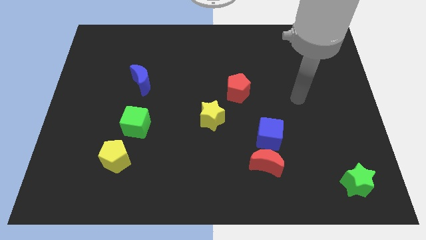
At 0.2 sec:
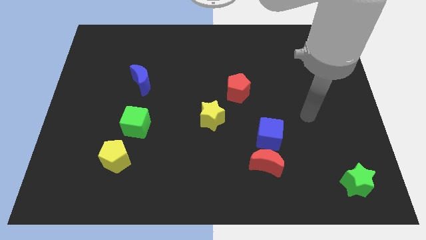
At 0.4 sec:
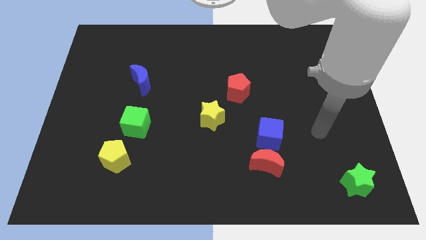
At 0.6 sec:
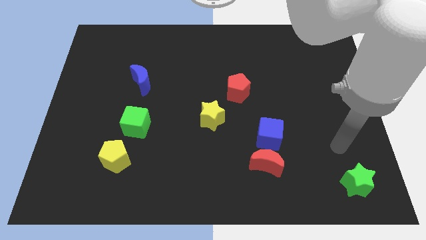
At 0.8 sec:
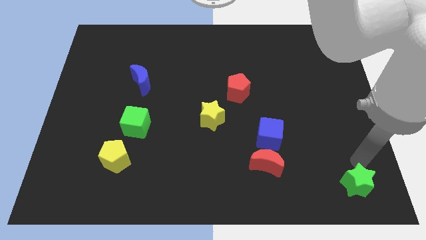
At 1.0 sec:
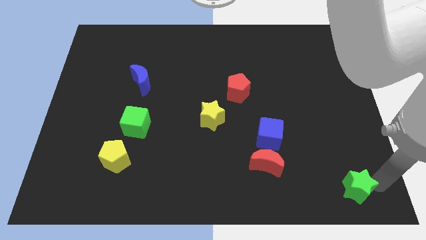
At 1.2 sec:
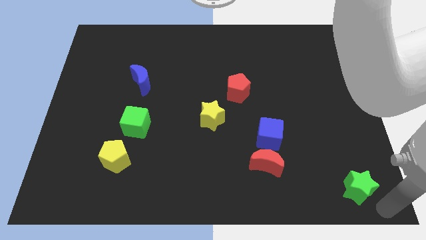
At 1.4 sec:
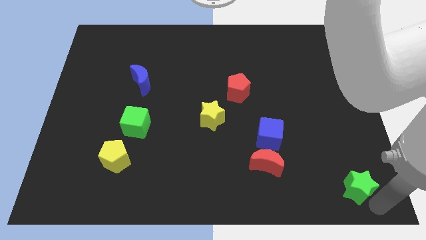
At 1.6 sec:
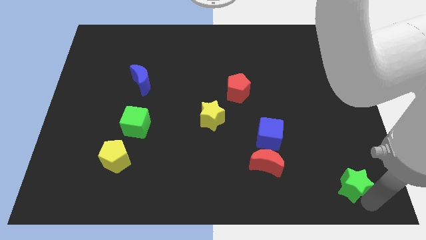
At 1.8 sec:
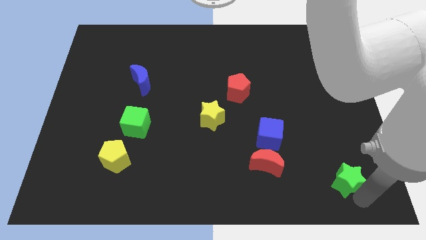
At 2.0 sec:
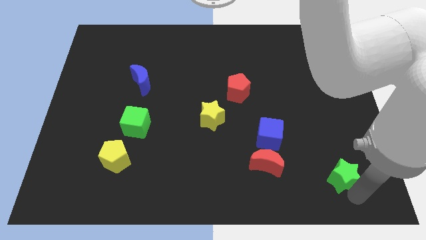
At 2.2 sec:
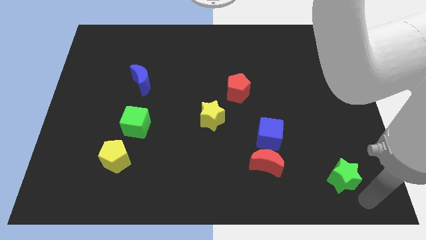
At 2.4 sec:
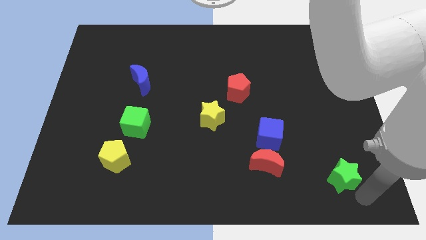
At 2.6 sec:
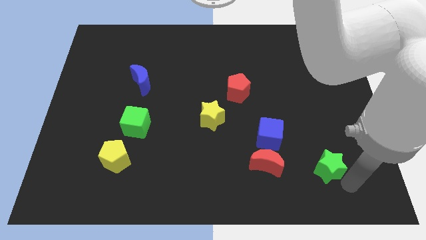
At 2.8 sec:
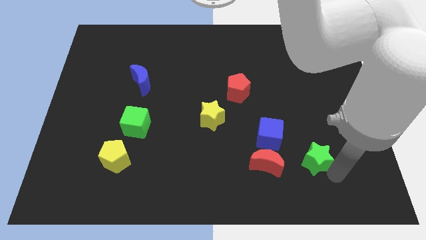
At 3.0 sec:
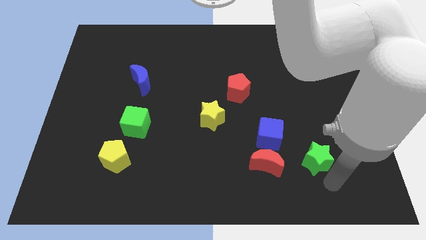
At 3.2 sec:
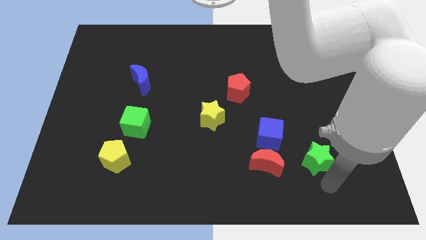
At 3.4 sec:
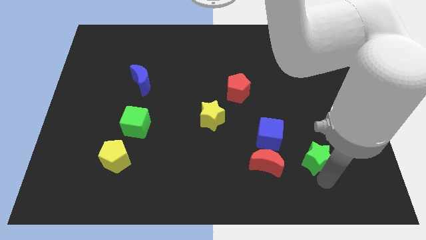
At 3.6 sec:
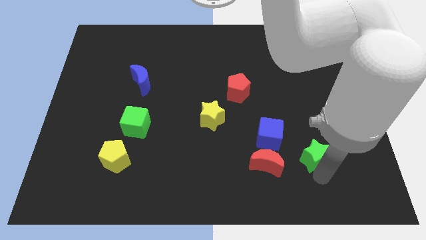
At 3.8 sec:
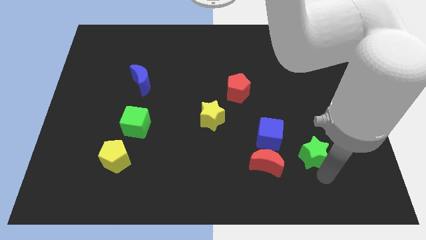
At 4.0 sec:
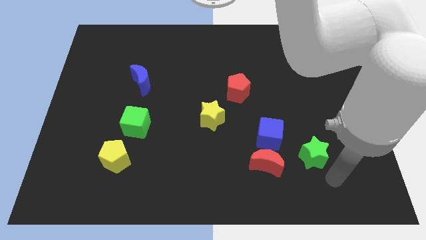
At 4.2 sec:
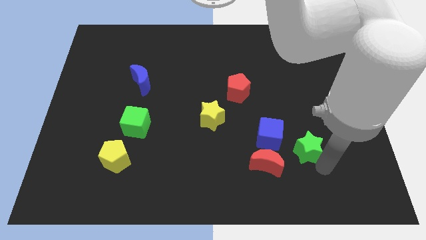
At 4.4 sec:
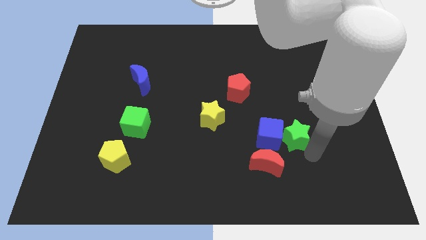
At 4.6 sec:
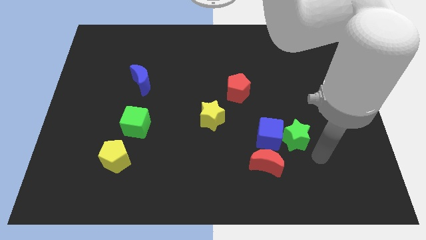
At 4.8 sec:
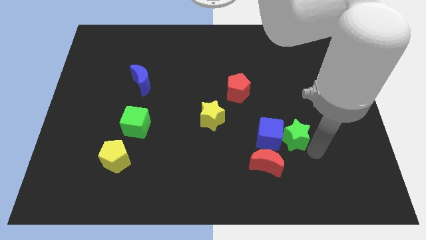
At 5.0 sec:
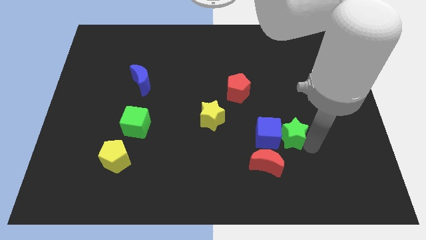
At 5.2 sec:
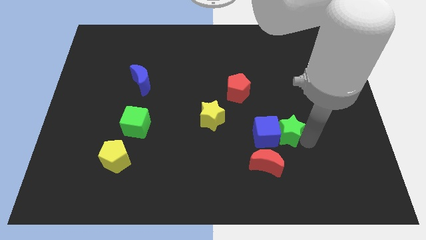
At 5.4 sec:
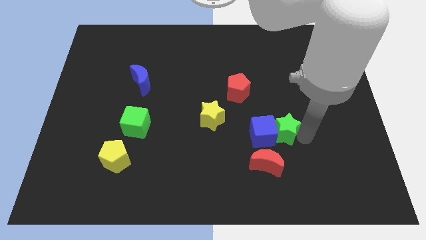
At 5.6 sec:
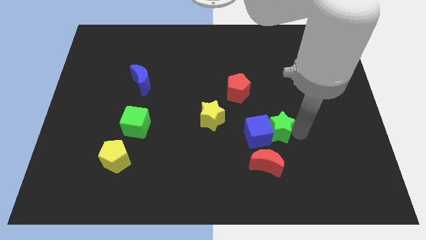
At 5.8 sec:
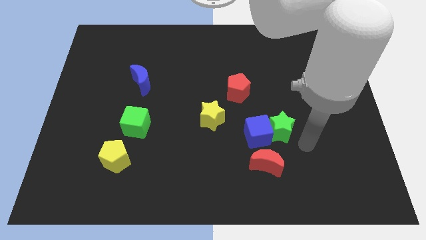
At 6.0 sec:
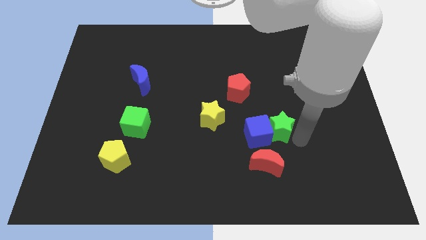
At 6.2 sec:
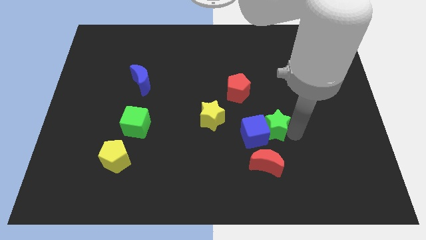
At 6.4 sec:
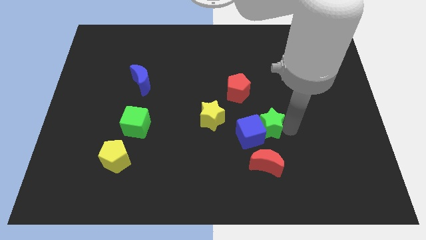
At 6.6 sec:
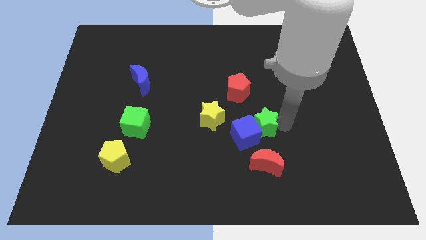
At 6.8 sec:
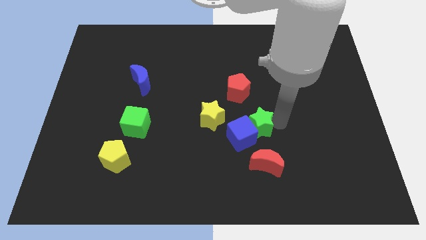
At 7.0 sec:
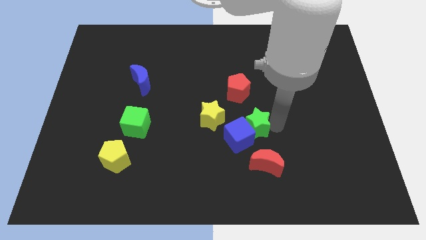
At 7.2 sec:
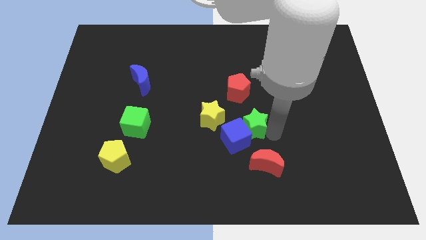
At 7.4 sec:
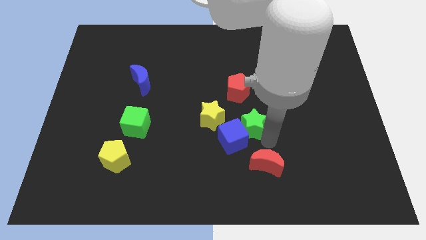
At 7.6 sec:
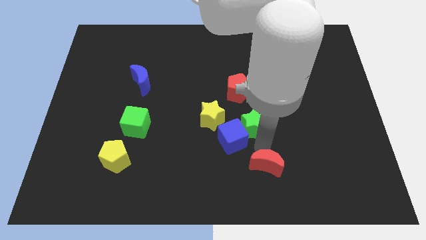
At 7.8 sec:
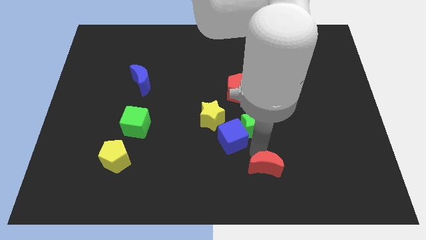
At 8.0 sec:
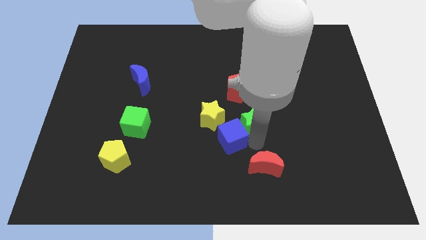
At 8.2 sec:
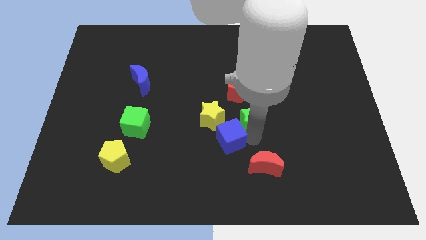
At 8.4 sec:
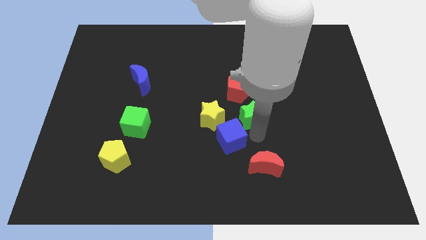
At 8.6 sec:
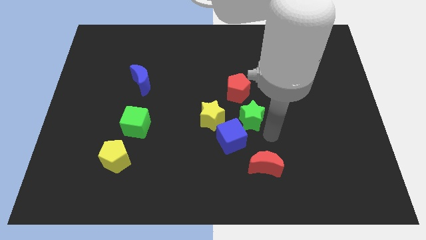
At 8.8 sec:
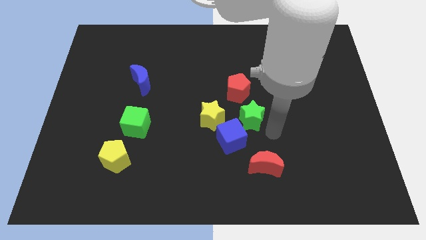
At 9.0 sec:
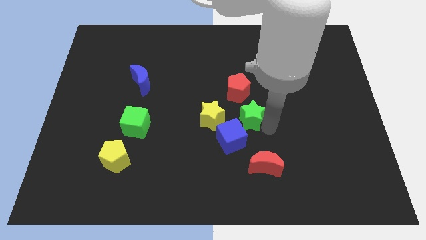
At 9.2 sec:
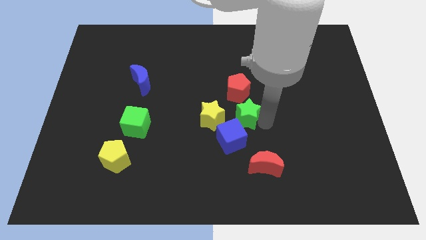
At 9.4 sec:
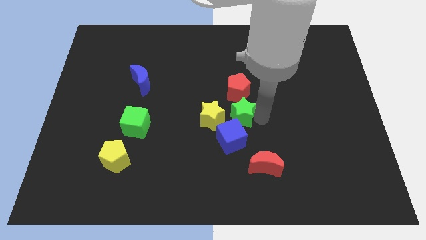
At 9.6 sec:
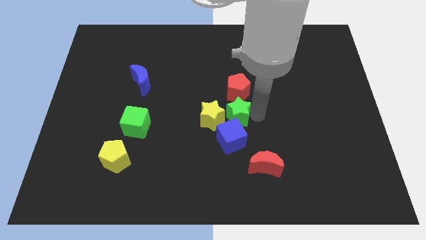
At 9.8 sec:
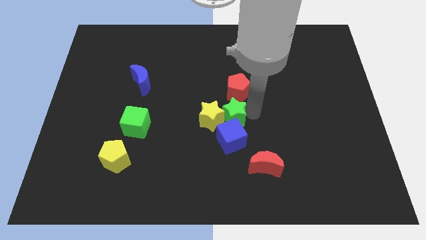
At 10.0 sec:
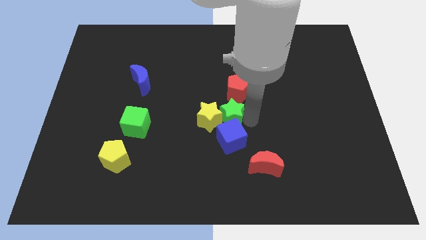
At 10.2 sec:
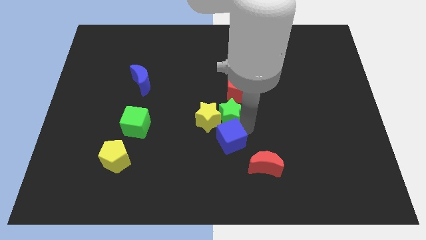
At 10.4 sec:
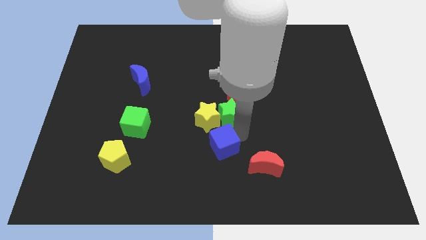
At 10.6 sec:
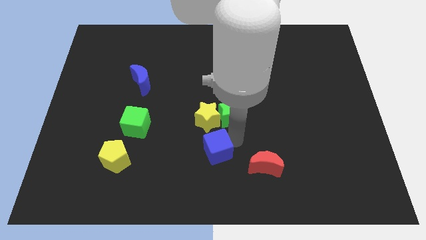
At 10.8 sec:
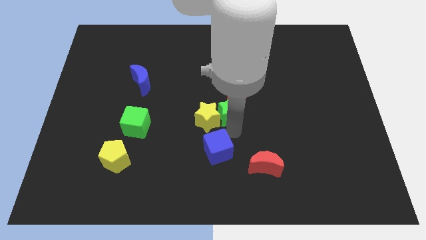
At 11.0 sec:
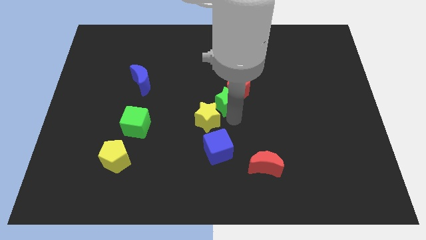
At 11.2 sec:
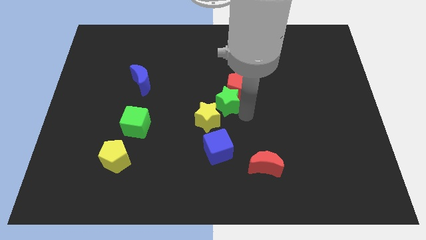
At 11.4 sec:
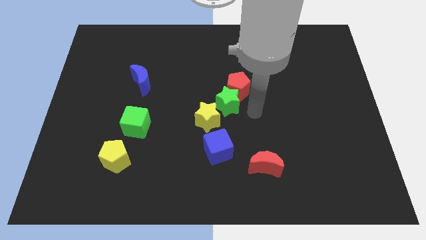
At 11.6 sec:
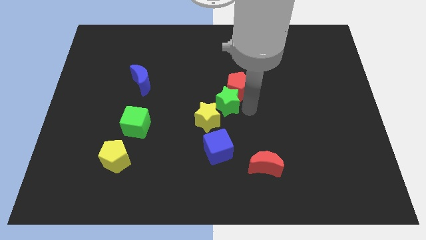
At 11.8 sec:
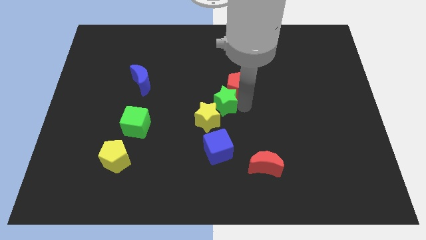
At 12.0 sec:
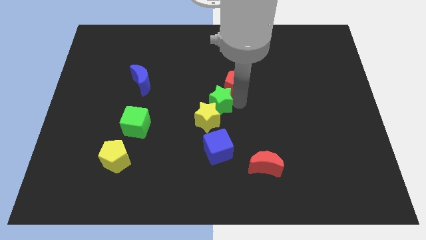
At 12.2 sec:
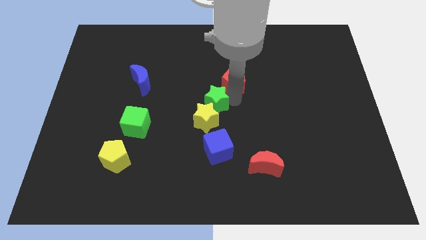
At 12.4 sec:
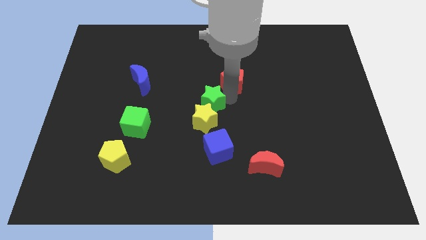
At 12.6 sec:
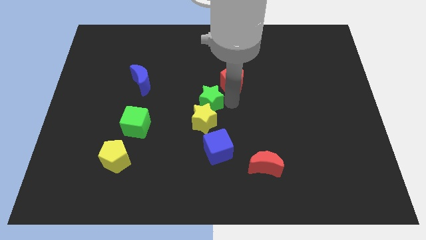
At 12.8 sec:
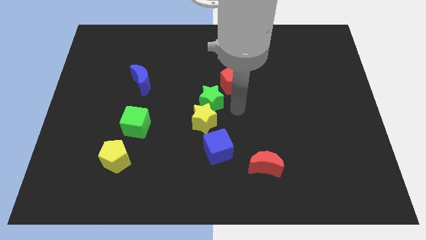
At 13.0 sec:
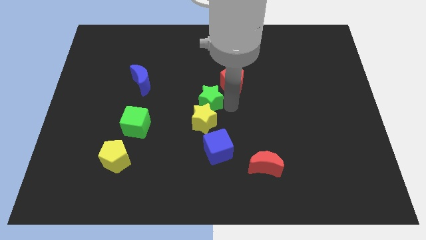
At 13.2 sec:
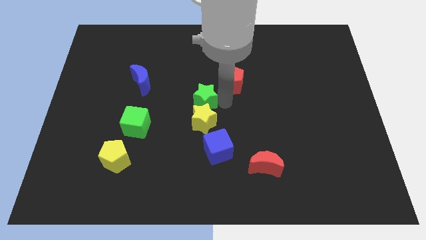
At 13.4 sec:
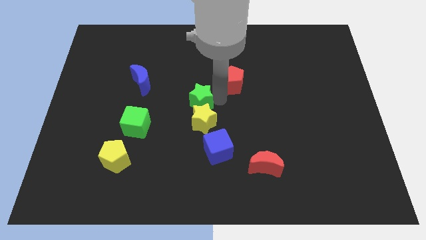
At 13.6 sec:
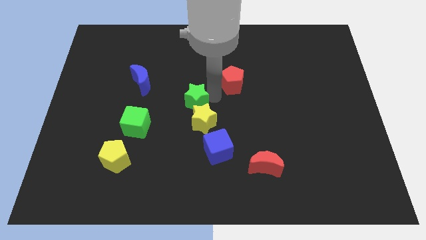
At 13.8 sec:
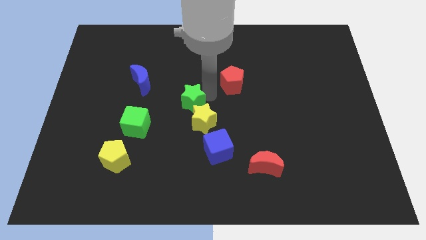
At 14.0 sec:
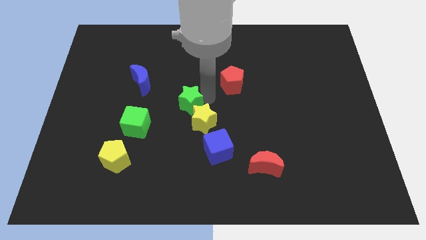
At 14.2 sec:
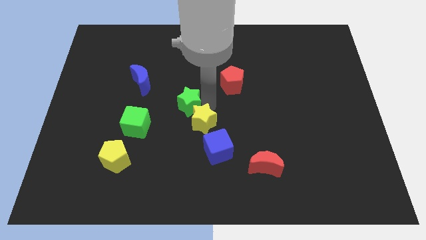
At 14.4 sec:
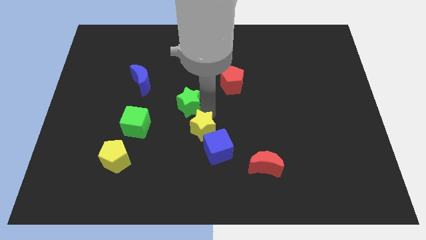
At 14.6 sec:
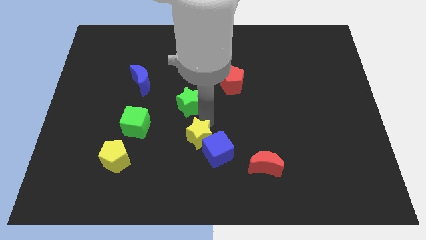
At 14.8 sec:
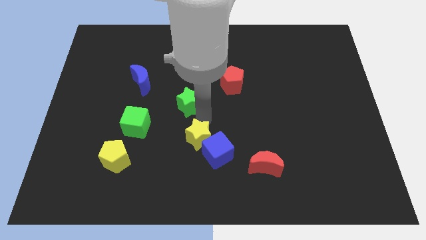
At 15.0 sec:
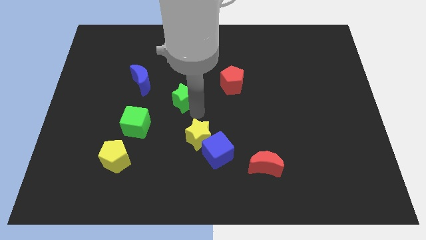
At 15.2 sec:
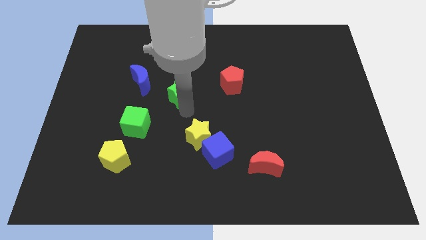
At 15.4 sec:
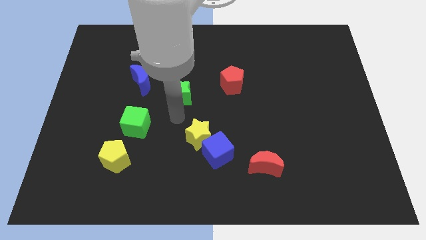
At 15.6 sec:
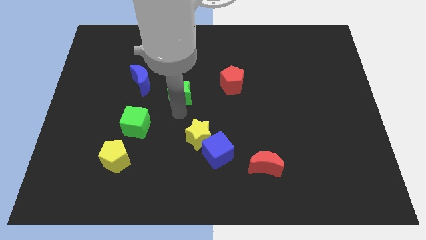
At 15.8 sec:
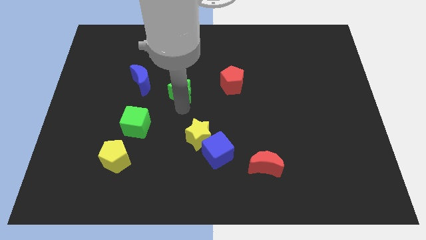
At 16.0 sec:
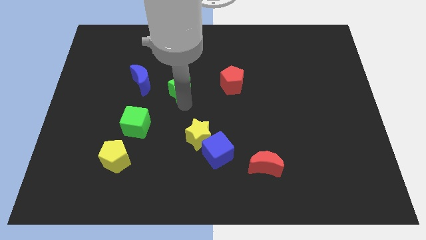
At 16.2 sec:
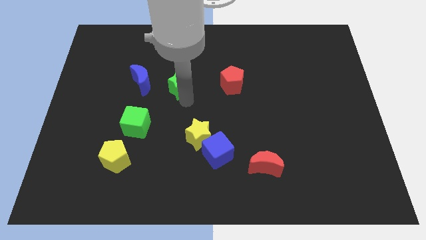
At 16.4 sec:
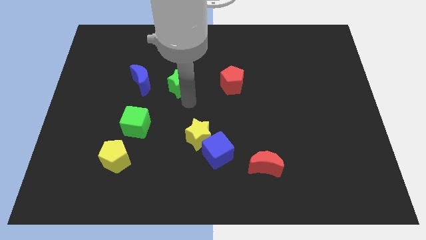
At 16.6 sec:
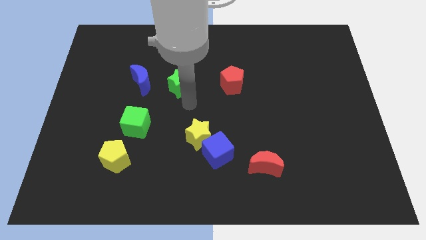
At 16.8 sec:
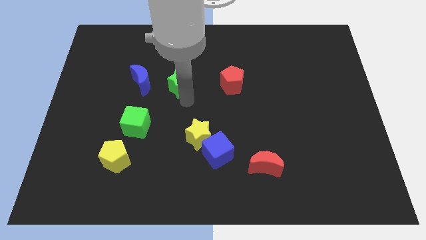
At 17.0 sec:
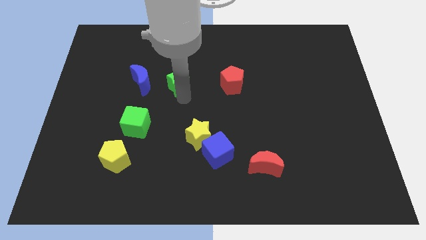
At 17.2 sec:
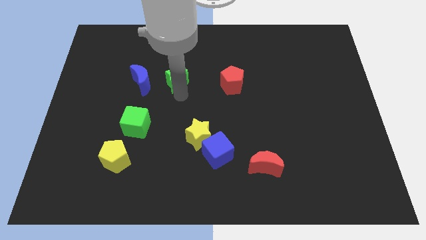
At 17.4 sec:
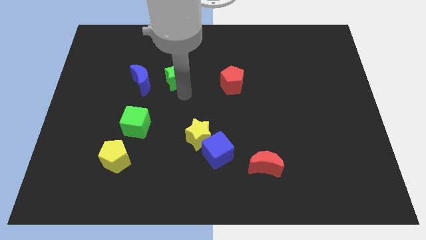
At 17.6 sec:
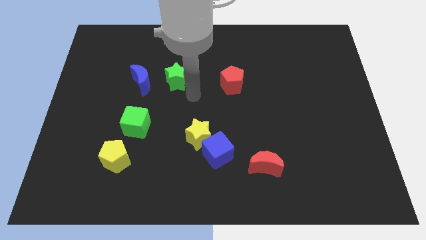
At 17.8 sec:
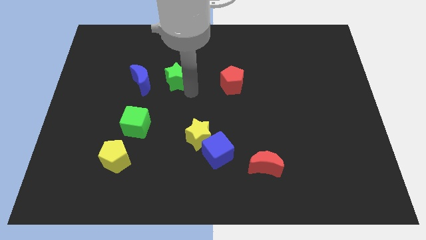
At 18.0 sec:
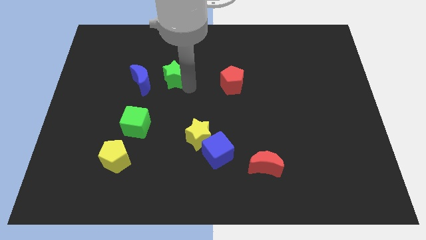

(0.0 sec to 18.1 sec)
move the green star to the top right side of the blue moon
